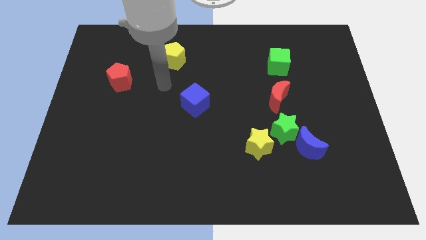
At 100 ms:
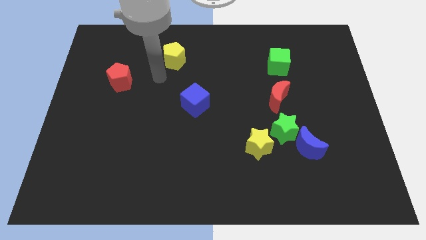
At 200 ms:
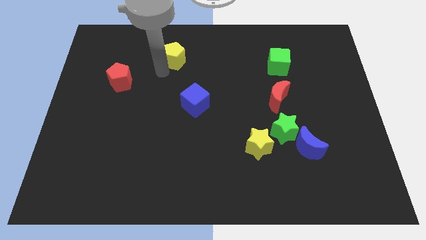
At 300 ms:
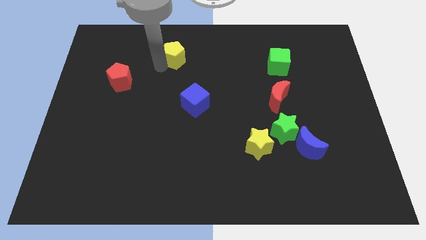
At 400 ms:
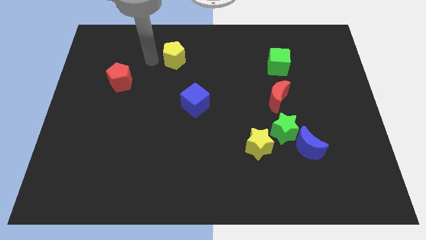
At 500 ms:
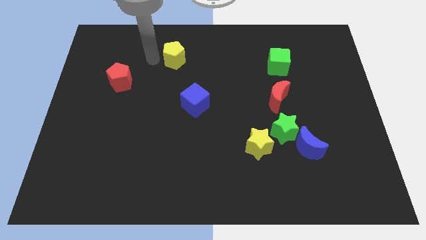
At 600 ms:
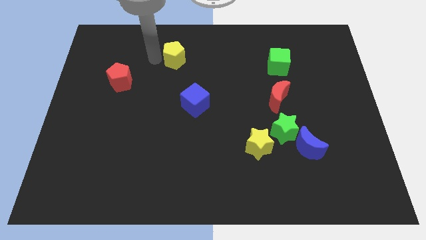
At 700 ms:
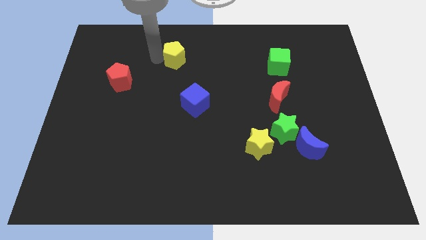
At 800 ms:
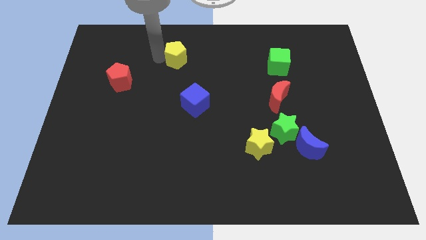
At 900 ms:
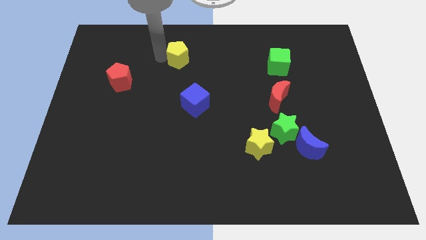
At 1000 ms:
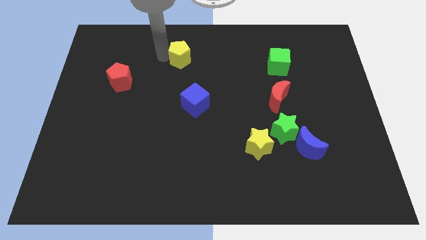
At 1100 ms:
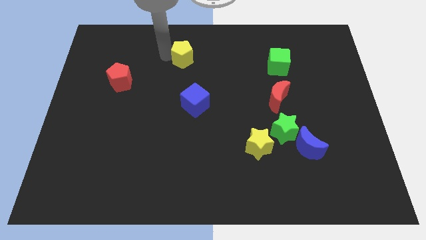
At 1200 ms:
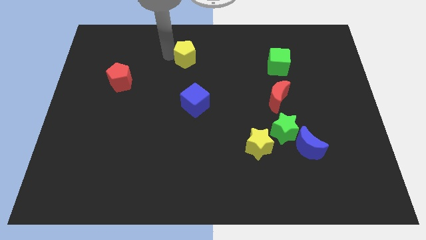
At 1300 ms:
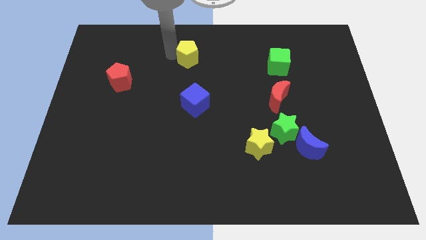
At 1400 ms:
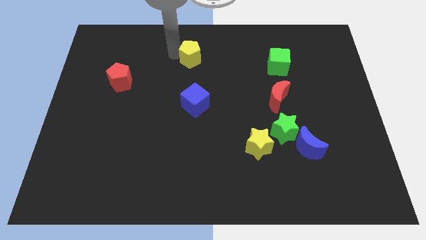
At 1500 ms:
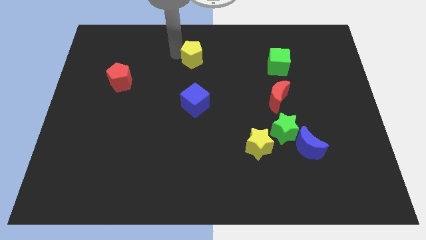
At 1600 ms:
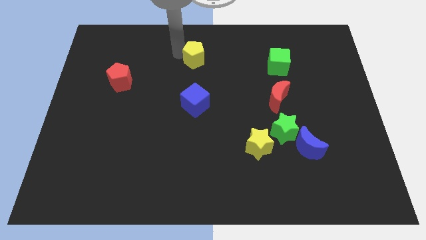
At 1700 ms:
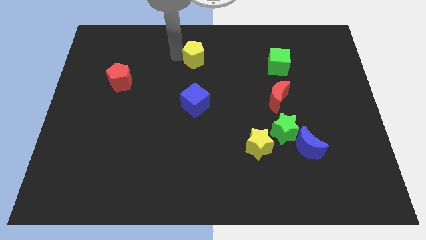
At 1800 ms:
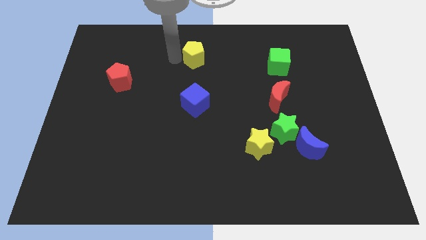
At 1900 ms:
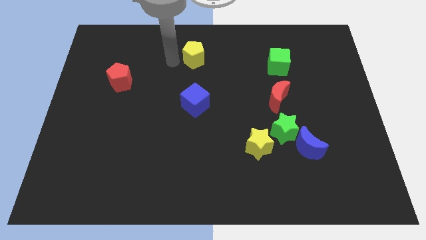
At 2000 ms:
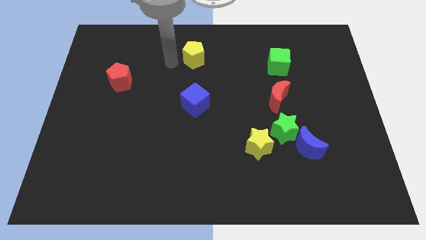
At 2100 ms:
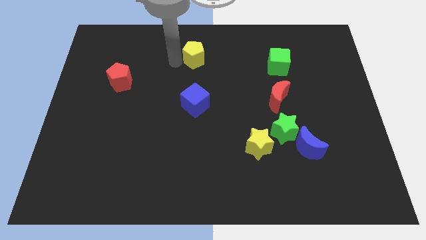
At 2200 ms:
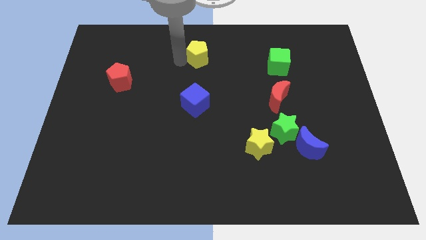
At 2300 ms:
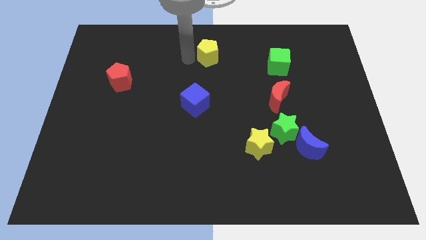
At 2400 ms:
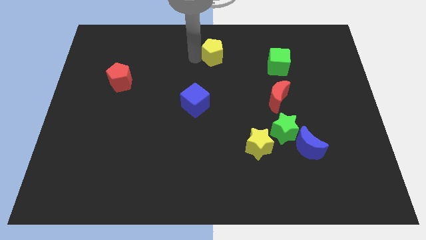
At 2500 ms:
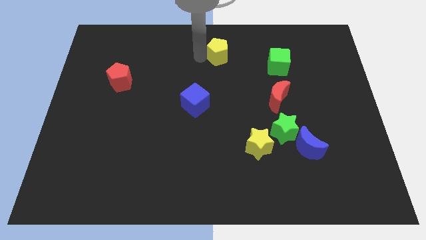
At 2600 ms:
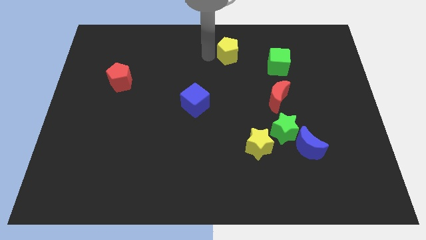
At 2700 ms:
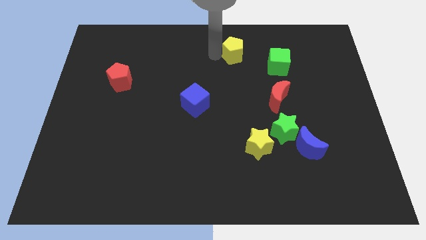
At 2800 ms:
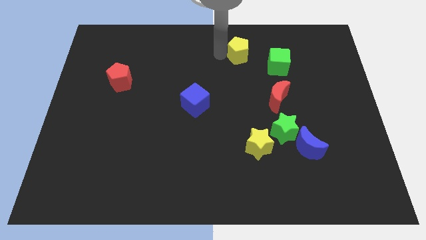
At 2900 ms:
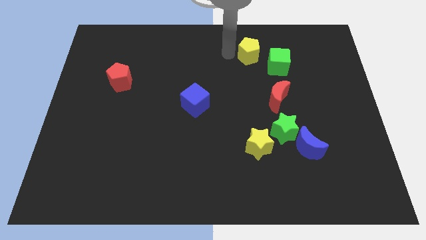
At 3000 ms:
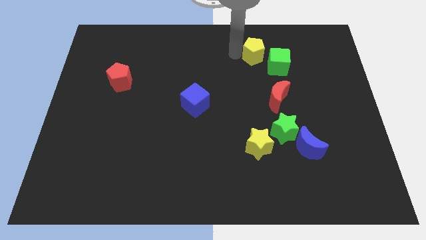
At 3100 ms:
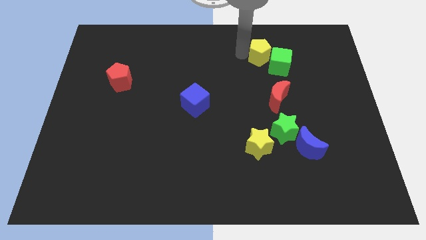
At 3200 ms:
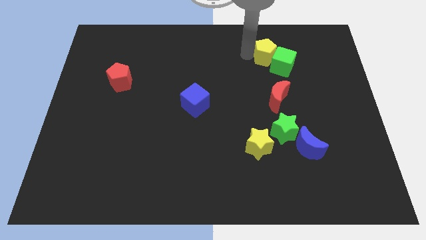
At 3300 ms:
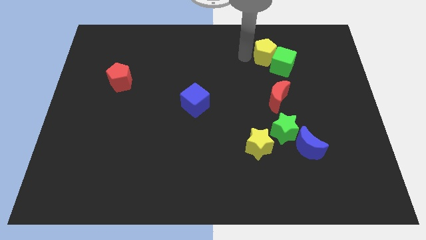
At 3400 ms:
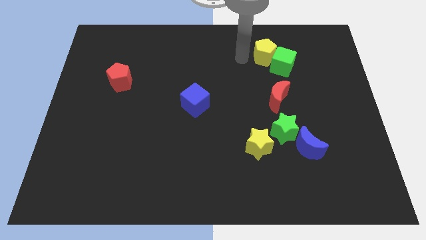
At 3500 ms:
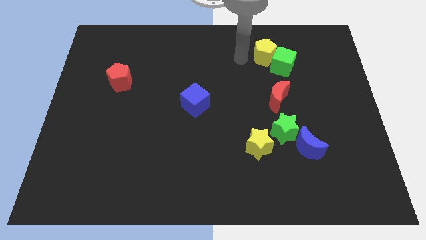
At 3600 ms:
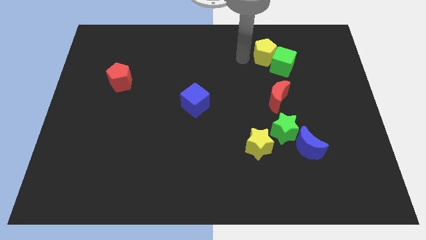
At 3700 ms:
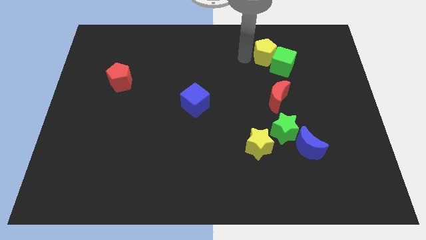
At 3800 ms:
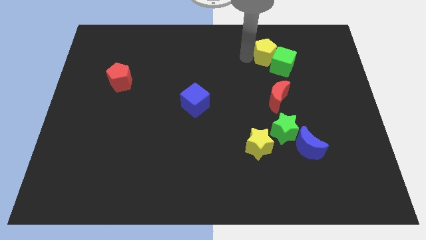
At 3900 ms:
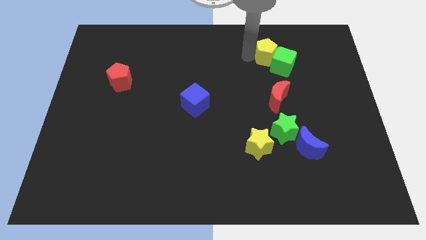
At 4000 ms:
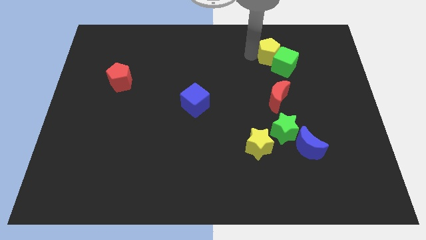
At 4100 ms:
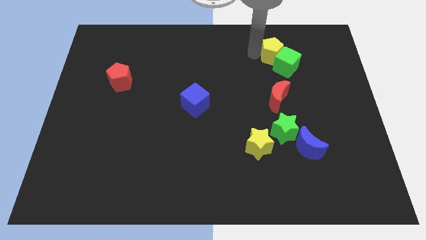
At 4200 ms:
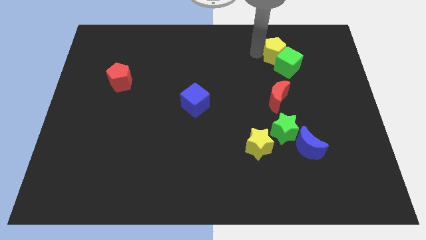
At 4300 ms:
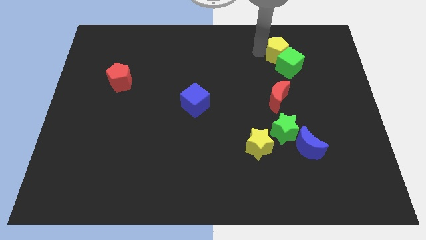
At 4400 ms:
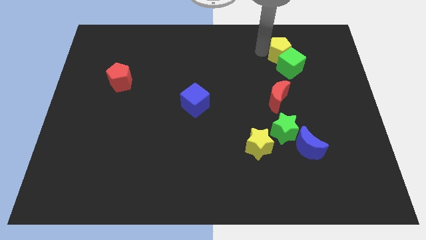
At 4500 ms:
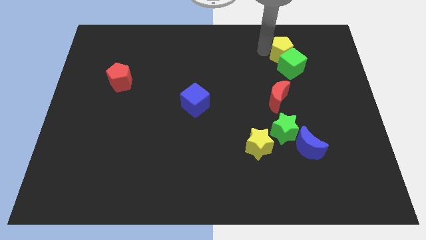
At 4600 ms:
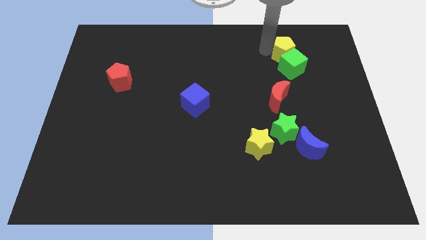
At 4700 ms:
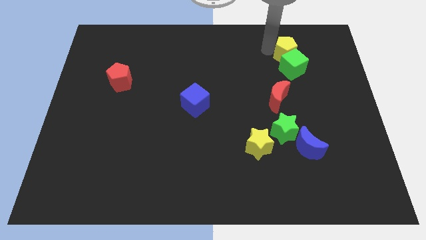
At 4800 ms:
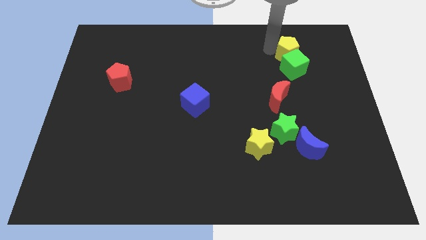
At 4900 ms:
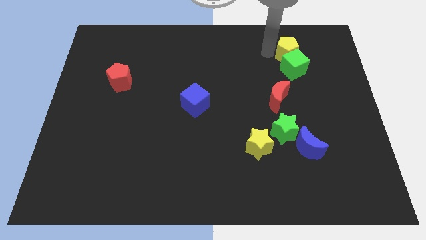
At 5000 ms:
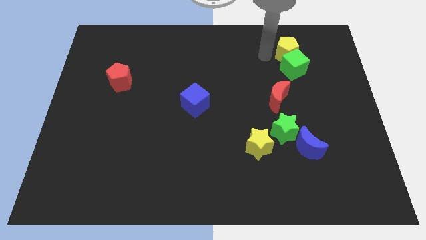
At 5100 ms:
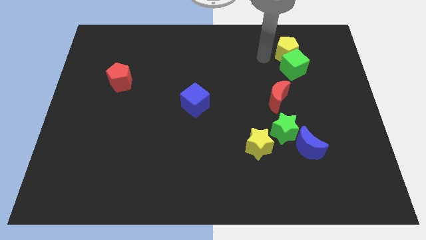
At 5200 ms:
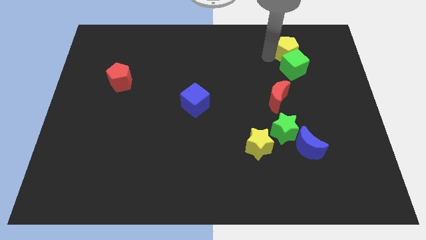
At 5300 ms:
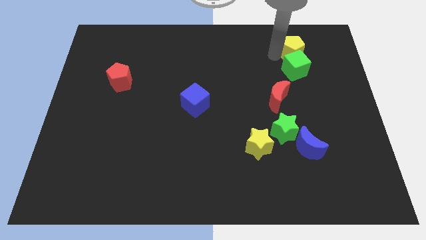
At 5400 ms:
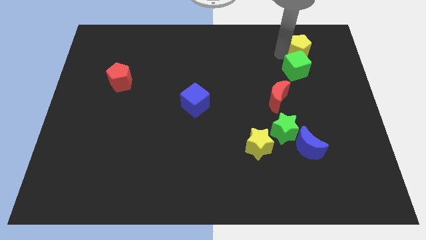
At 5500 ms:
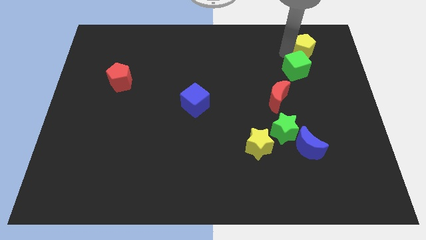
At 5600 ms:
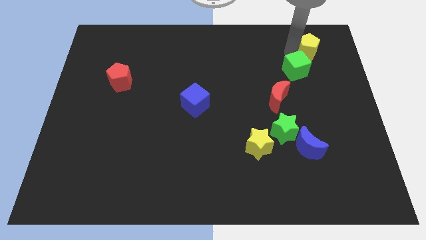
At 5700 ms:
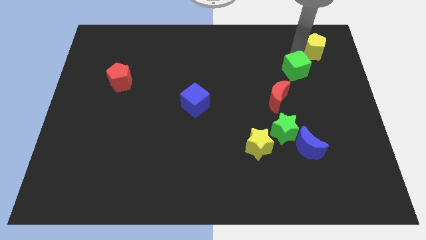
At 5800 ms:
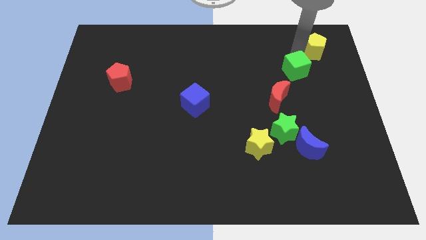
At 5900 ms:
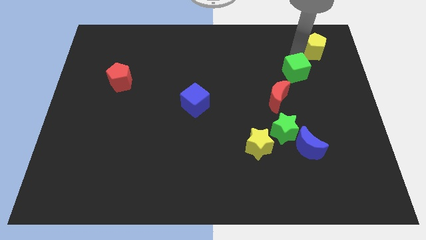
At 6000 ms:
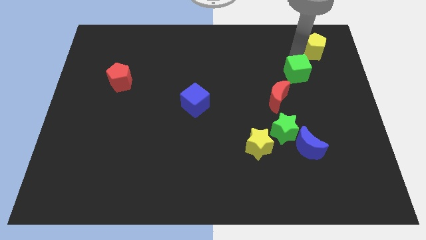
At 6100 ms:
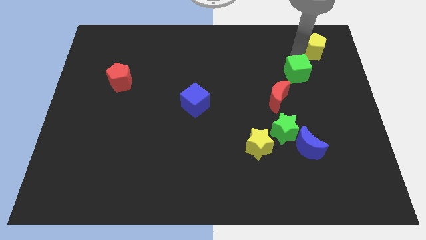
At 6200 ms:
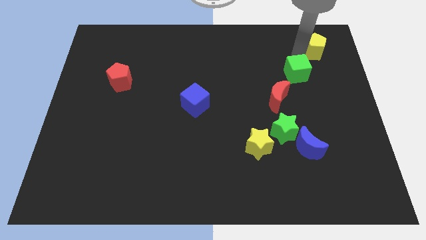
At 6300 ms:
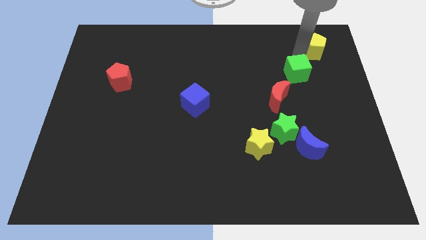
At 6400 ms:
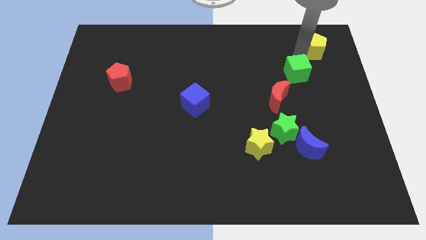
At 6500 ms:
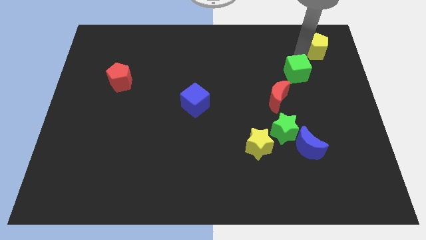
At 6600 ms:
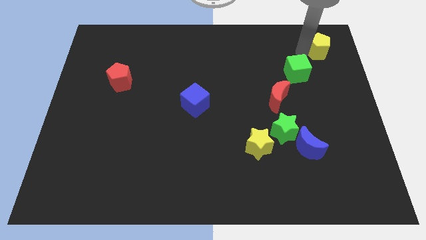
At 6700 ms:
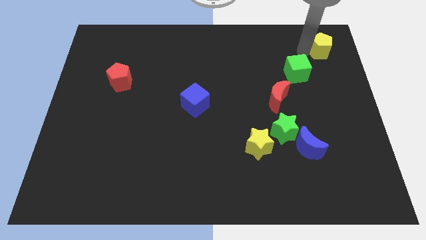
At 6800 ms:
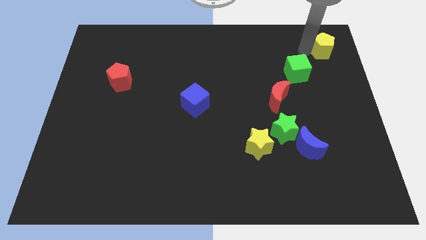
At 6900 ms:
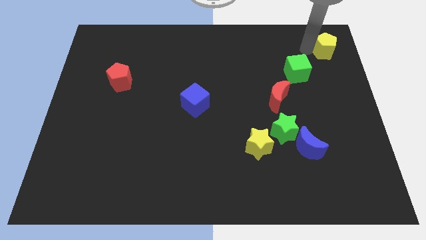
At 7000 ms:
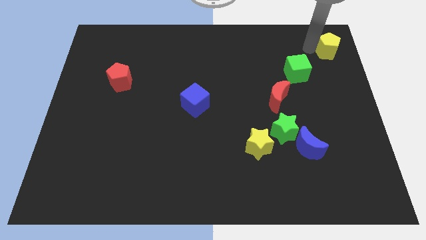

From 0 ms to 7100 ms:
move the yellow pentagon to the top right corner

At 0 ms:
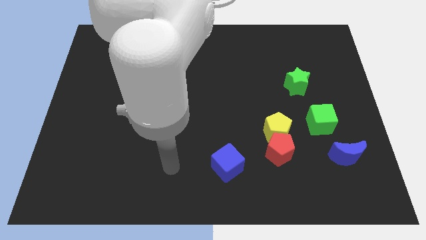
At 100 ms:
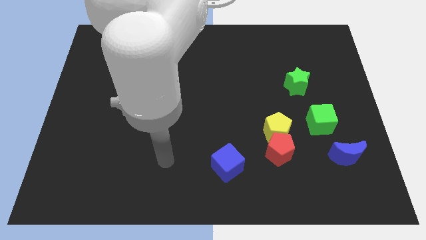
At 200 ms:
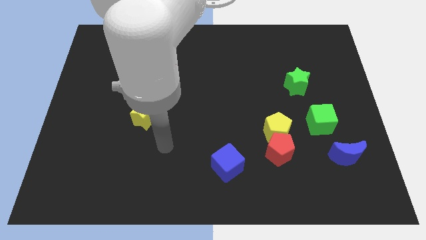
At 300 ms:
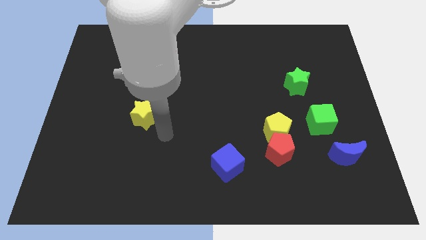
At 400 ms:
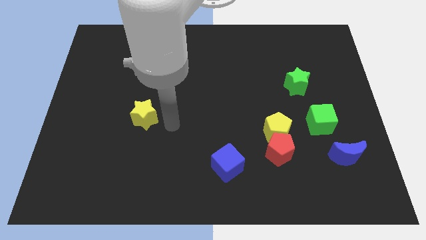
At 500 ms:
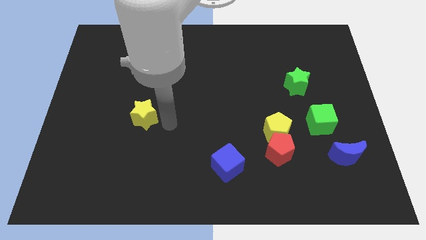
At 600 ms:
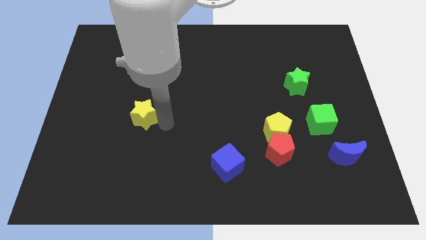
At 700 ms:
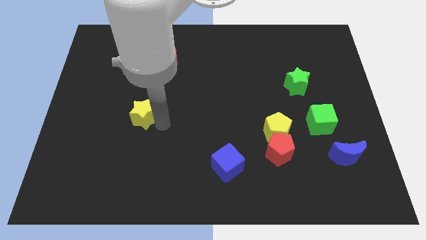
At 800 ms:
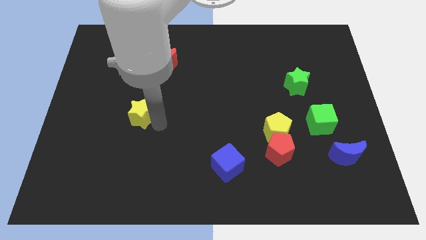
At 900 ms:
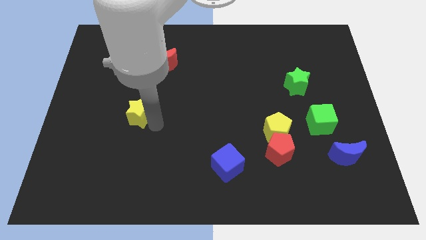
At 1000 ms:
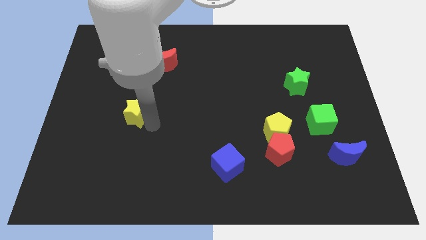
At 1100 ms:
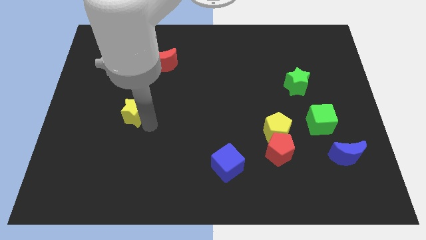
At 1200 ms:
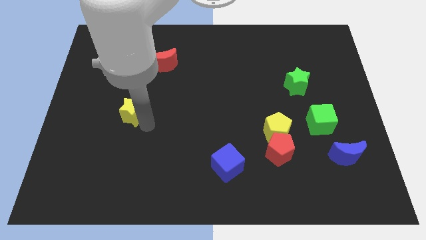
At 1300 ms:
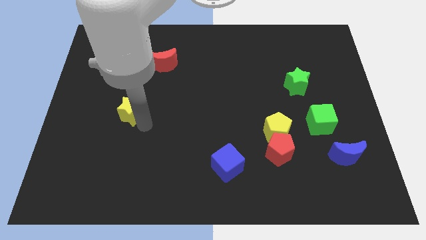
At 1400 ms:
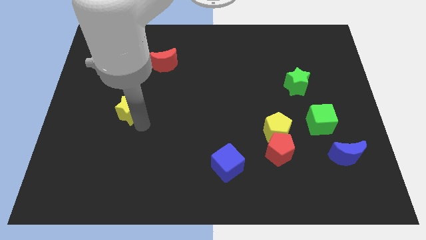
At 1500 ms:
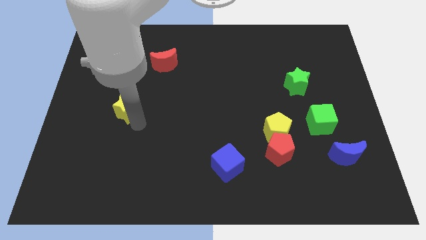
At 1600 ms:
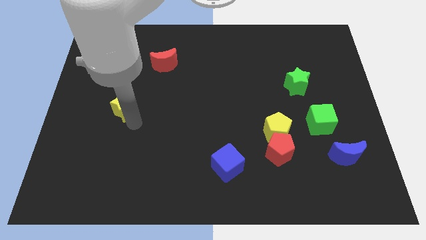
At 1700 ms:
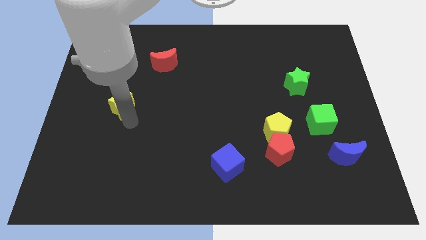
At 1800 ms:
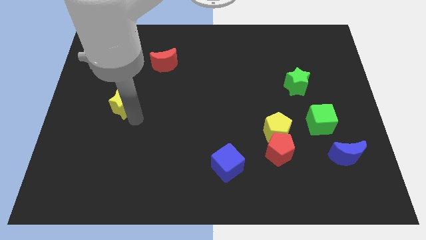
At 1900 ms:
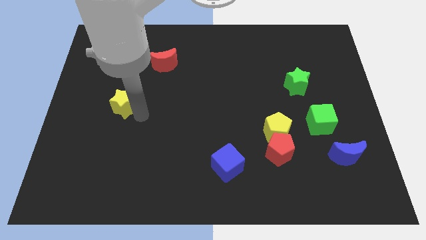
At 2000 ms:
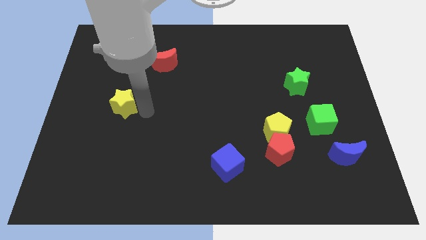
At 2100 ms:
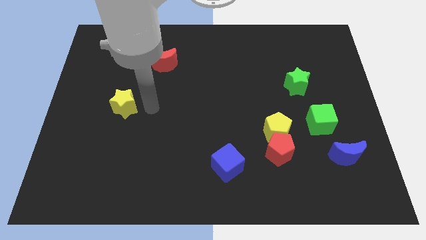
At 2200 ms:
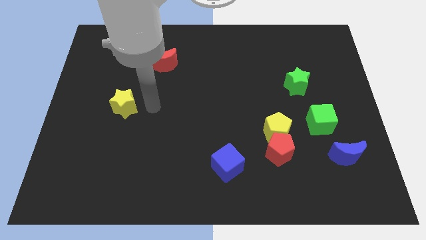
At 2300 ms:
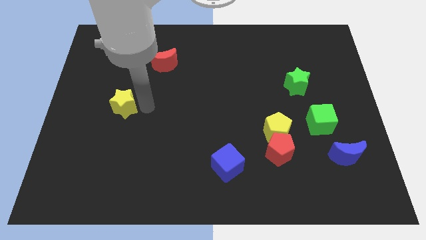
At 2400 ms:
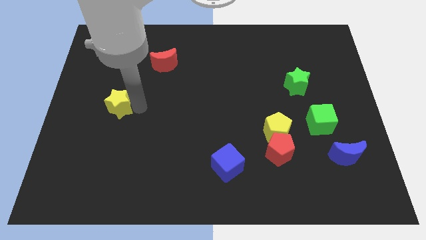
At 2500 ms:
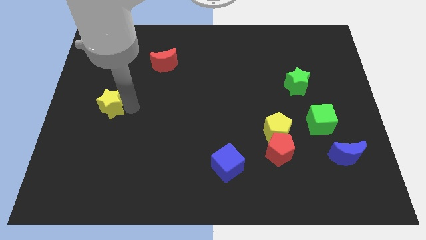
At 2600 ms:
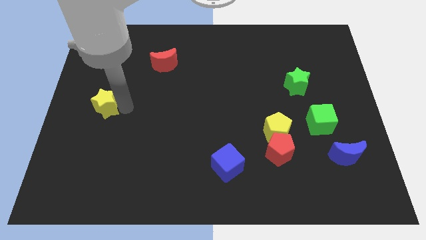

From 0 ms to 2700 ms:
move the yellow star to the center left
